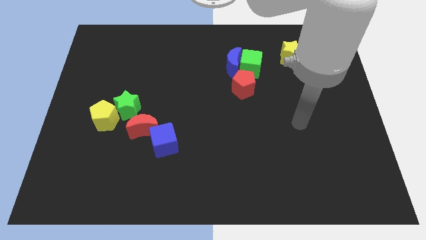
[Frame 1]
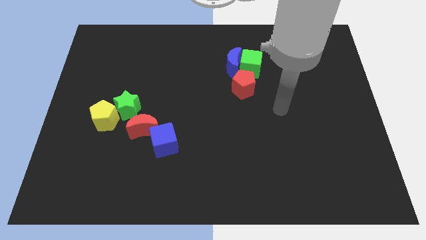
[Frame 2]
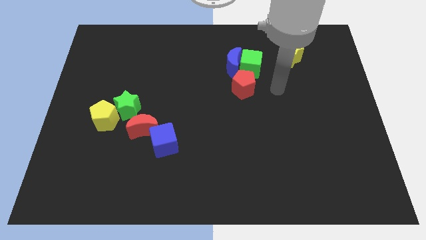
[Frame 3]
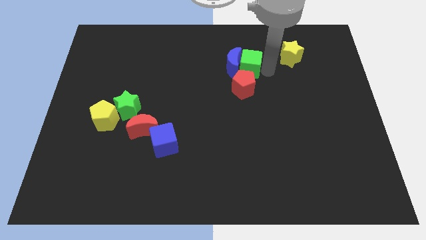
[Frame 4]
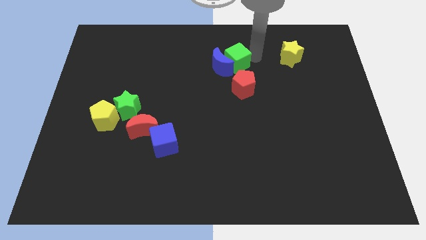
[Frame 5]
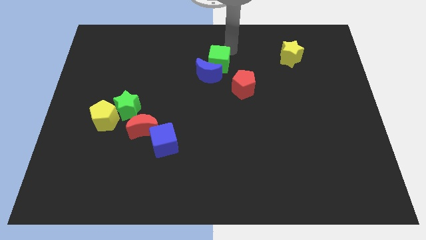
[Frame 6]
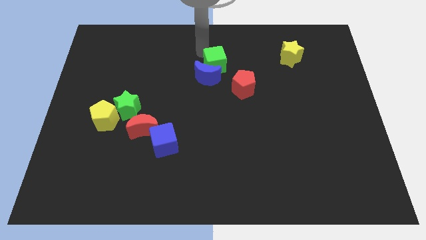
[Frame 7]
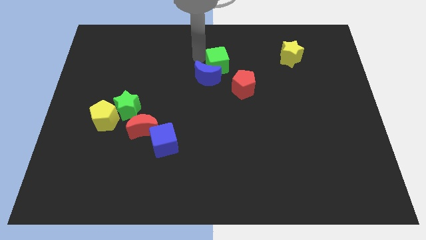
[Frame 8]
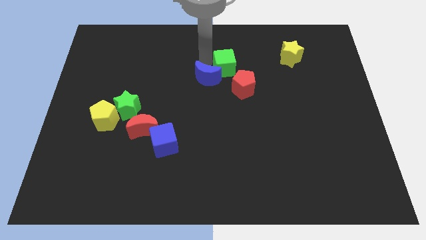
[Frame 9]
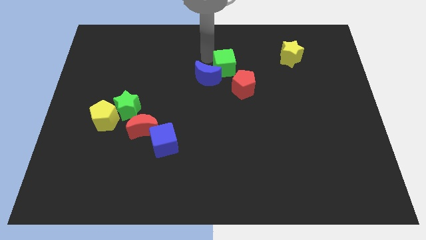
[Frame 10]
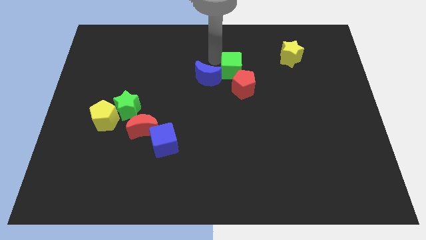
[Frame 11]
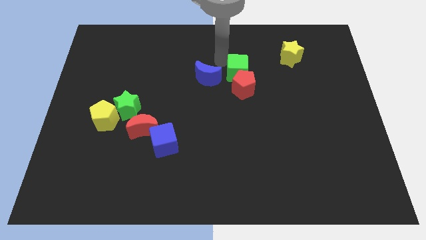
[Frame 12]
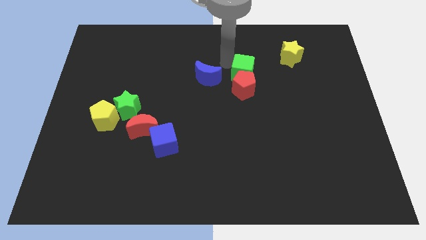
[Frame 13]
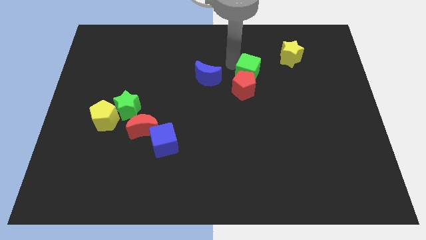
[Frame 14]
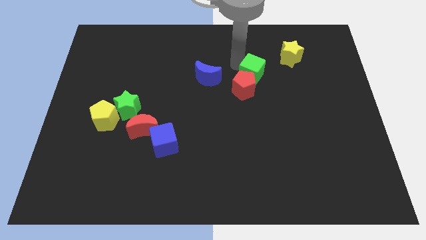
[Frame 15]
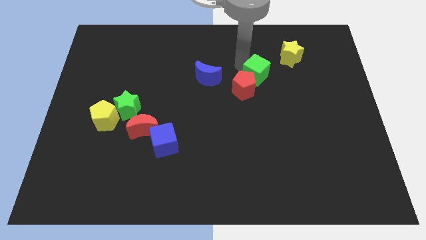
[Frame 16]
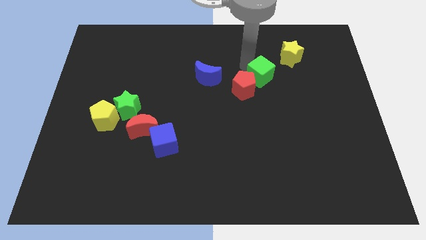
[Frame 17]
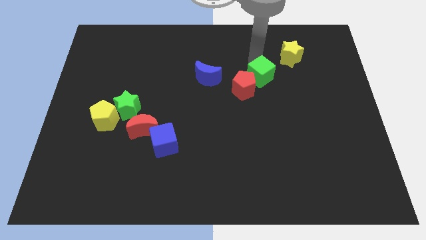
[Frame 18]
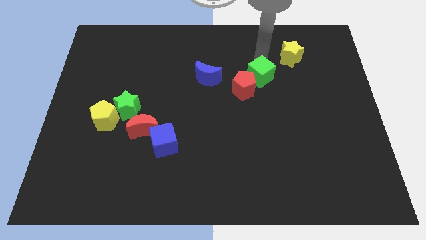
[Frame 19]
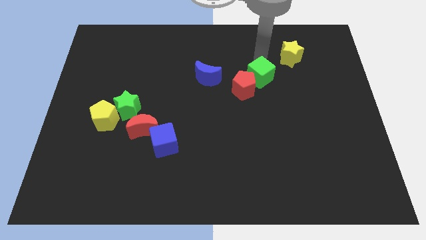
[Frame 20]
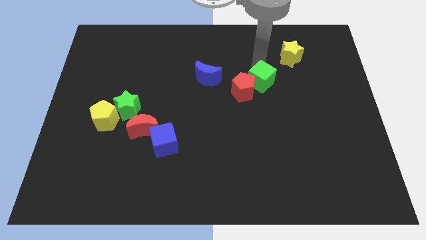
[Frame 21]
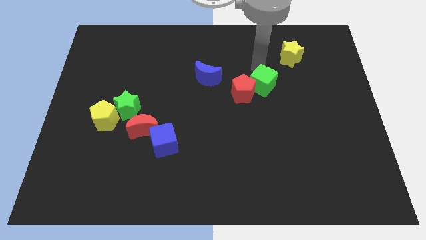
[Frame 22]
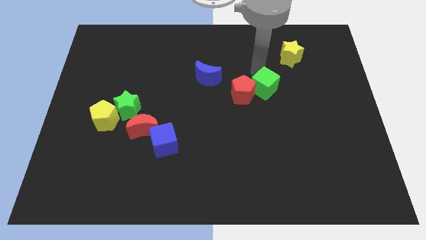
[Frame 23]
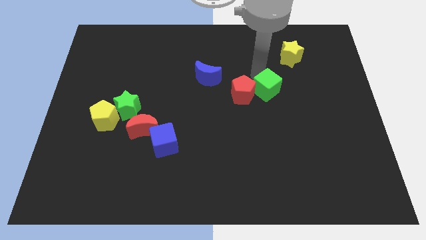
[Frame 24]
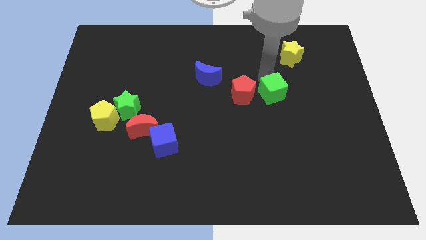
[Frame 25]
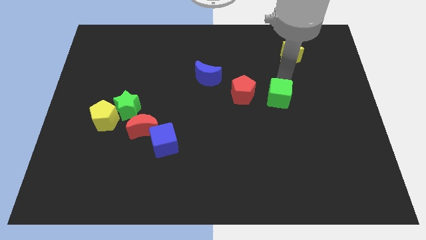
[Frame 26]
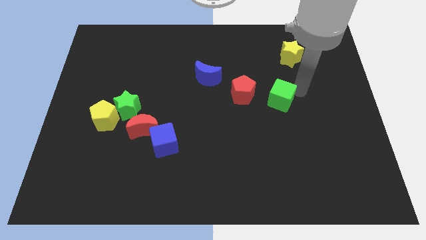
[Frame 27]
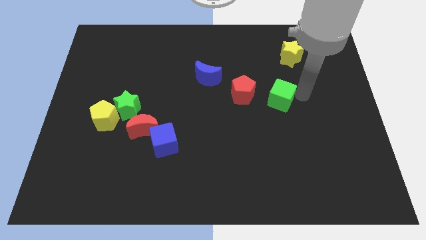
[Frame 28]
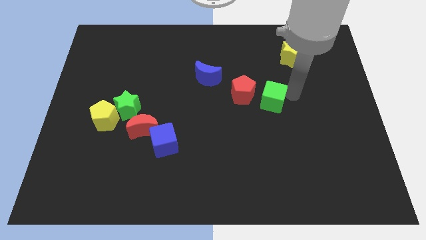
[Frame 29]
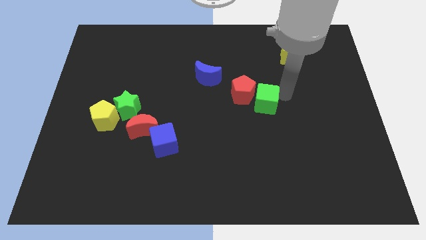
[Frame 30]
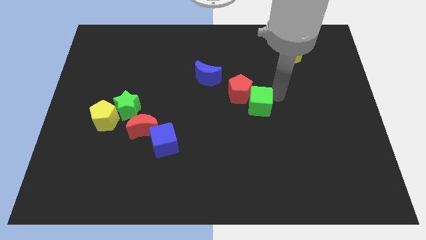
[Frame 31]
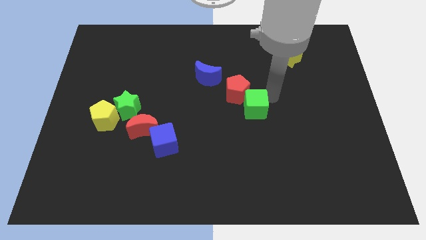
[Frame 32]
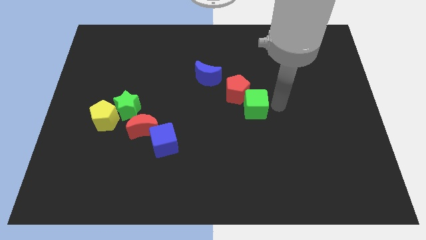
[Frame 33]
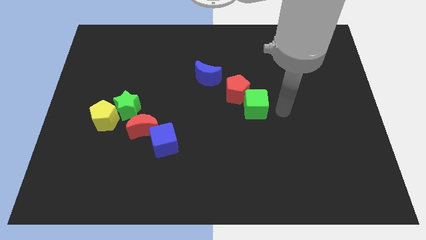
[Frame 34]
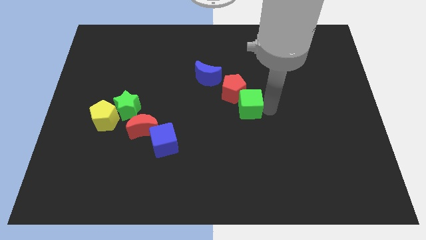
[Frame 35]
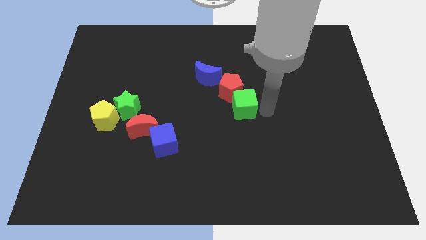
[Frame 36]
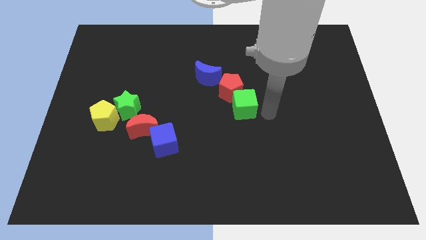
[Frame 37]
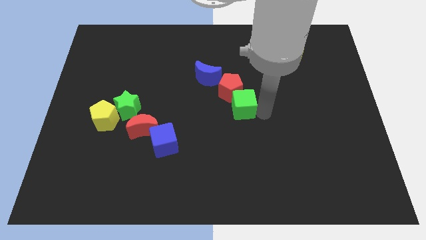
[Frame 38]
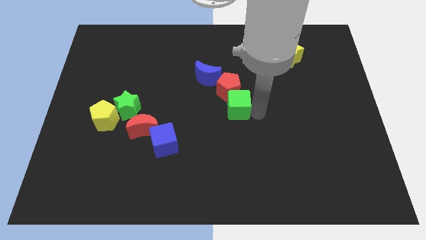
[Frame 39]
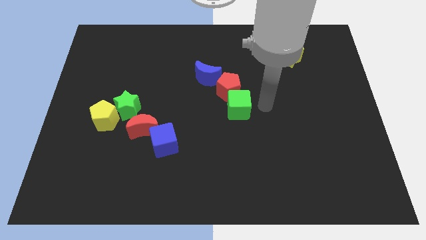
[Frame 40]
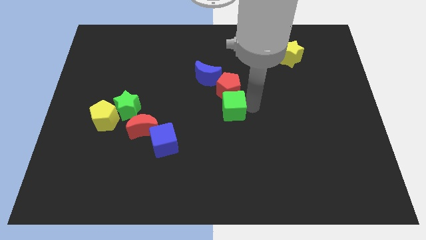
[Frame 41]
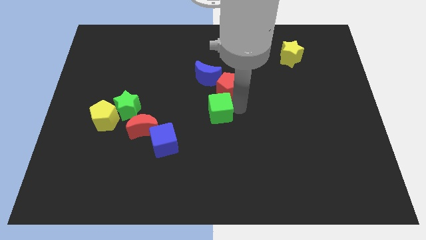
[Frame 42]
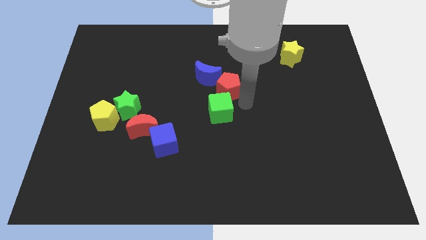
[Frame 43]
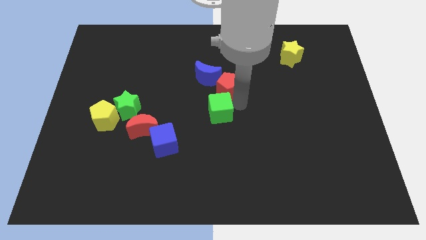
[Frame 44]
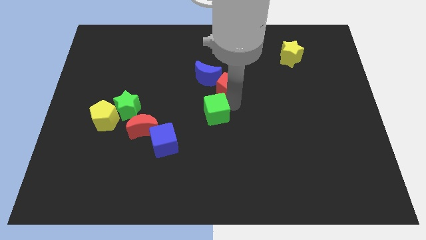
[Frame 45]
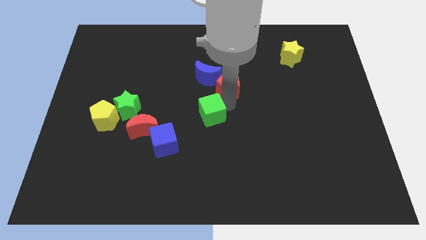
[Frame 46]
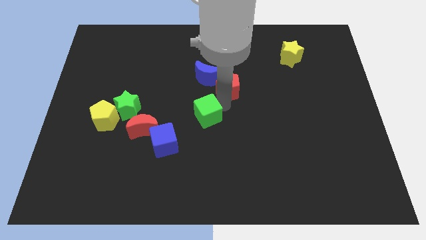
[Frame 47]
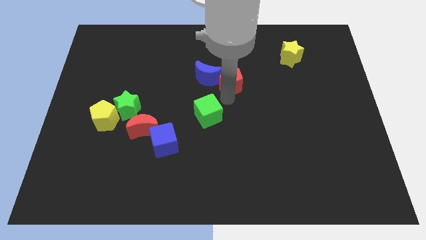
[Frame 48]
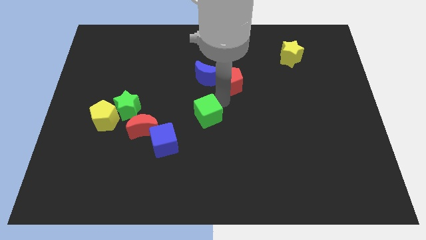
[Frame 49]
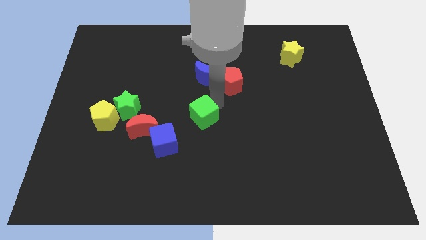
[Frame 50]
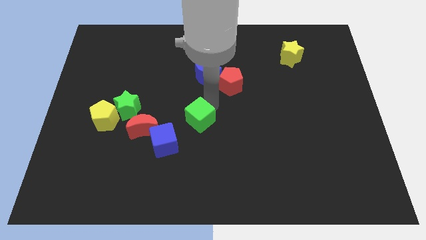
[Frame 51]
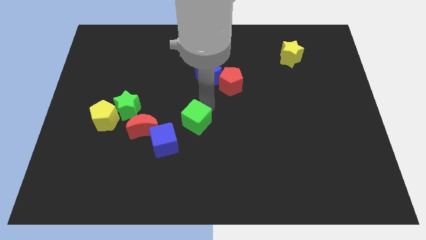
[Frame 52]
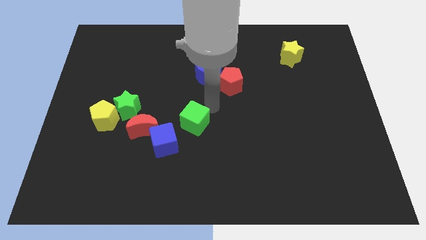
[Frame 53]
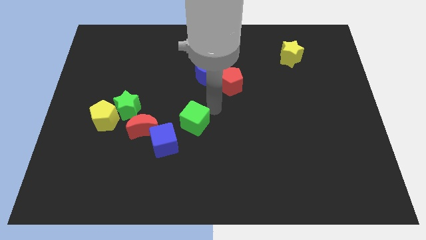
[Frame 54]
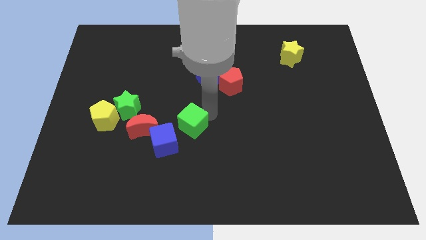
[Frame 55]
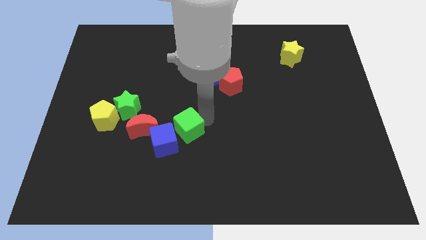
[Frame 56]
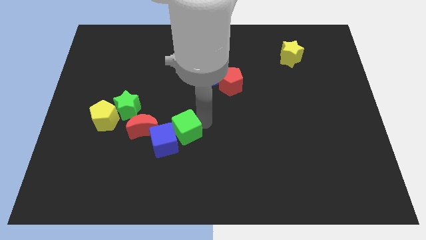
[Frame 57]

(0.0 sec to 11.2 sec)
push the green cube close to the blue cube
